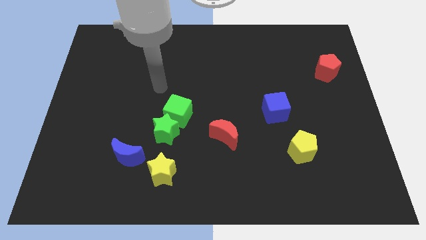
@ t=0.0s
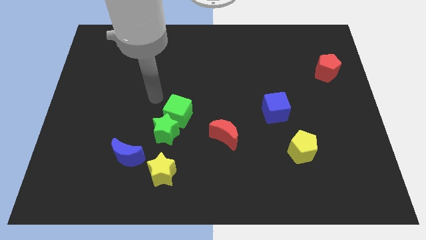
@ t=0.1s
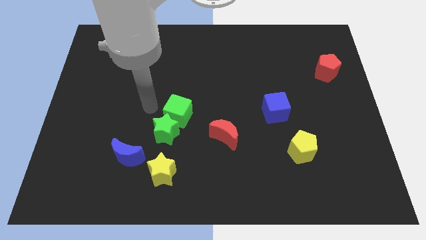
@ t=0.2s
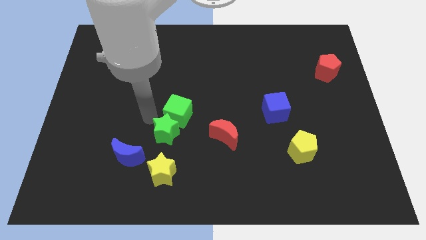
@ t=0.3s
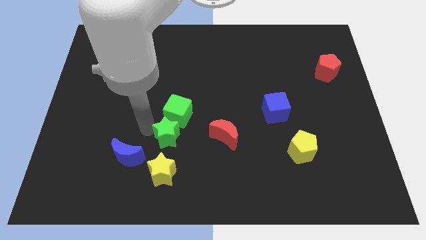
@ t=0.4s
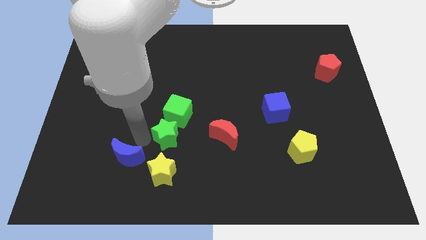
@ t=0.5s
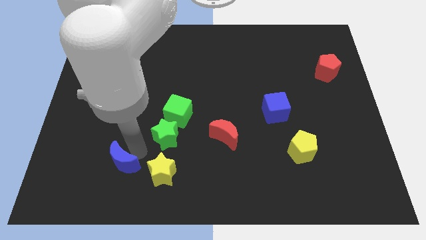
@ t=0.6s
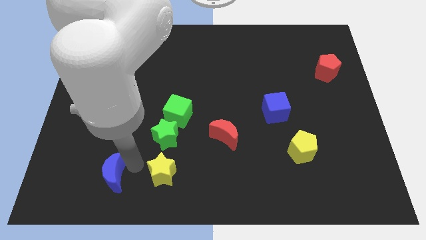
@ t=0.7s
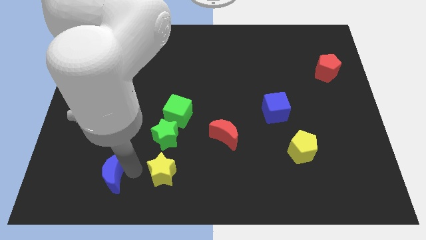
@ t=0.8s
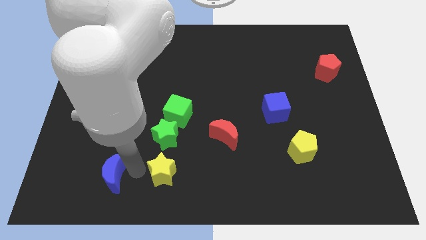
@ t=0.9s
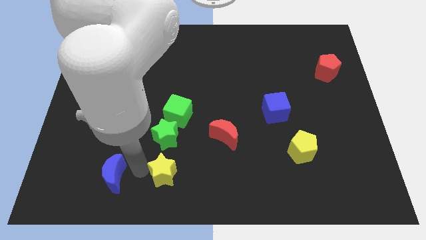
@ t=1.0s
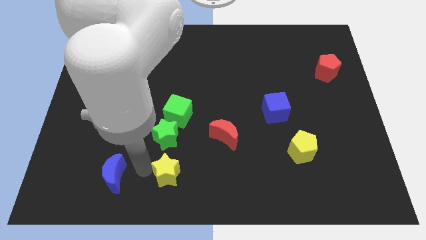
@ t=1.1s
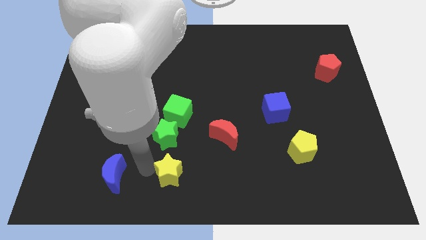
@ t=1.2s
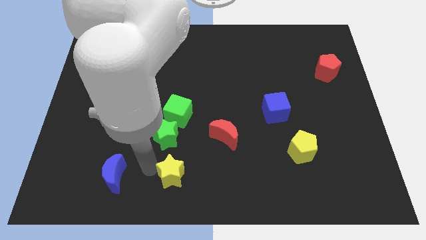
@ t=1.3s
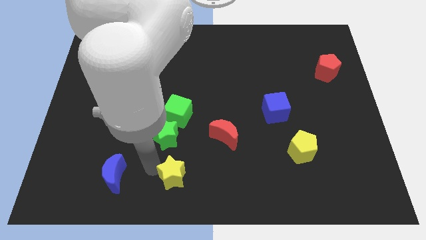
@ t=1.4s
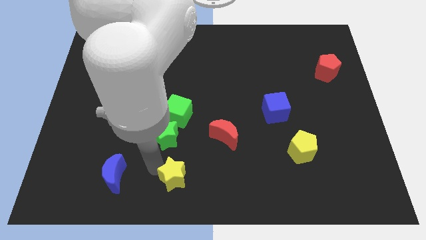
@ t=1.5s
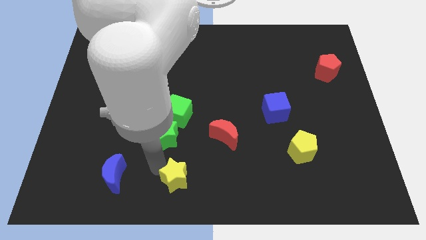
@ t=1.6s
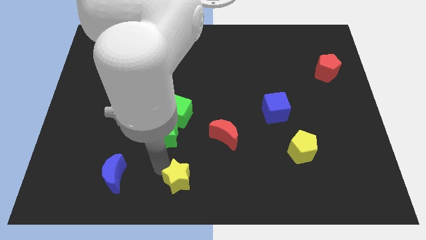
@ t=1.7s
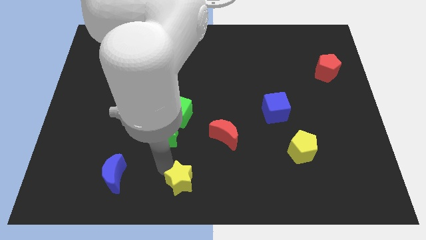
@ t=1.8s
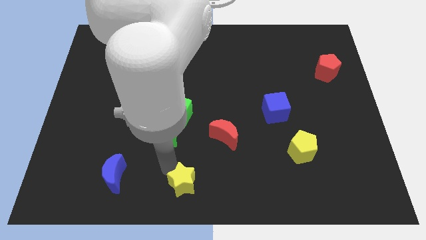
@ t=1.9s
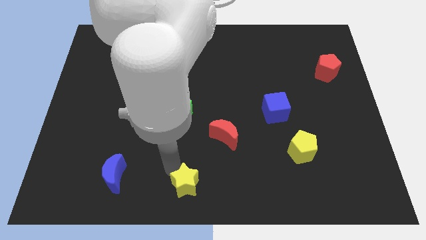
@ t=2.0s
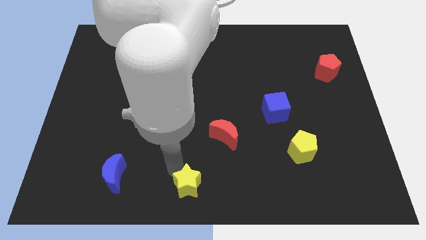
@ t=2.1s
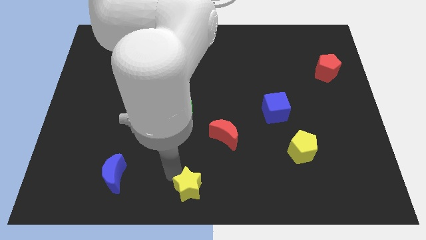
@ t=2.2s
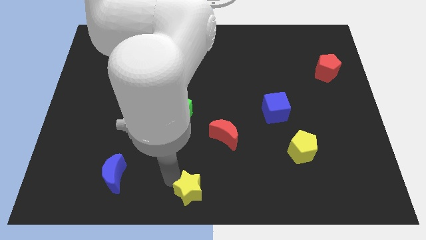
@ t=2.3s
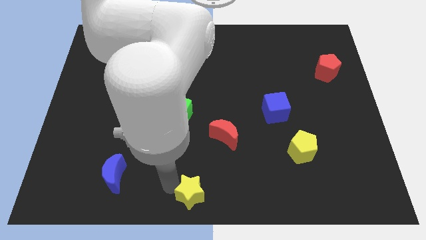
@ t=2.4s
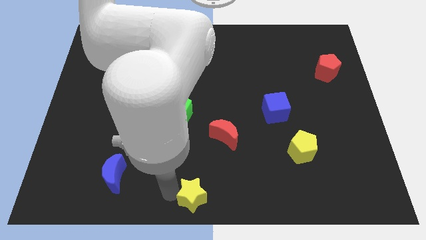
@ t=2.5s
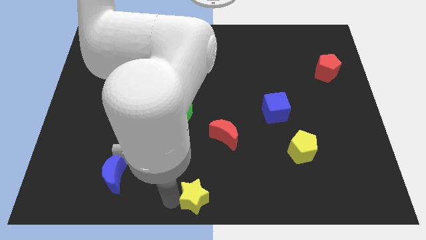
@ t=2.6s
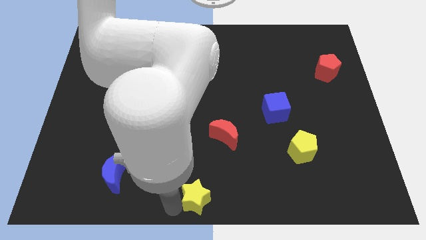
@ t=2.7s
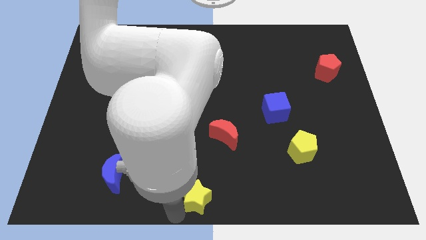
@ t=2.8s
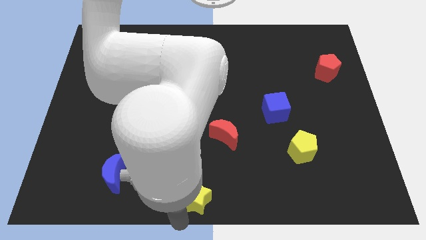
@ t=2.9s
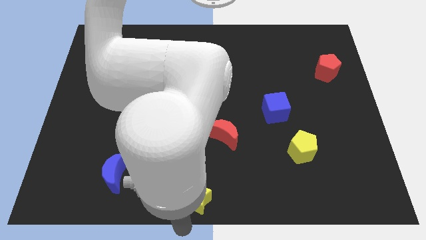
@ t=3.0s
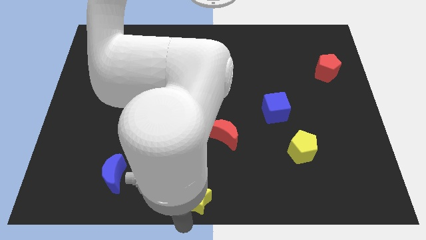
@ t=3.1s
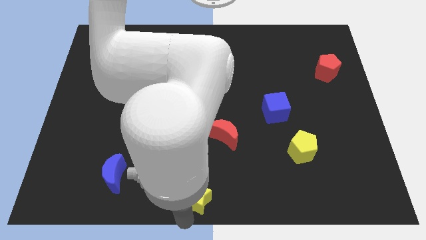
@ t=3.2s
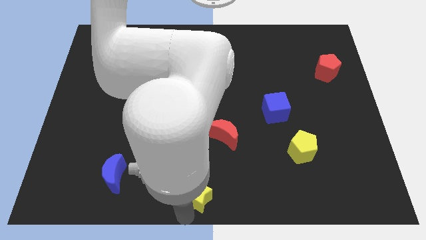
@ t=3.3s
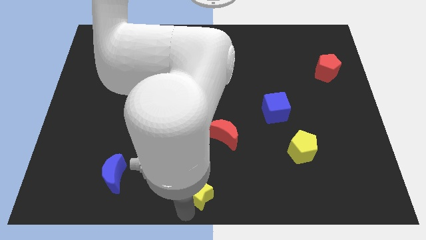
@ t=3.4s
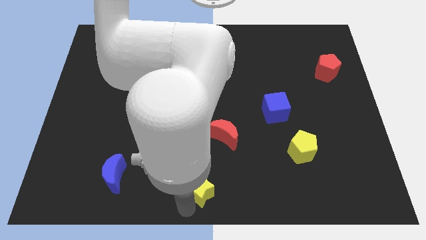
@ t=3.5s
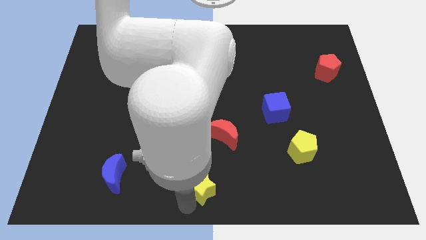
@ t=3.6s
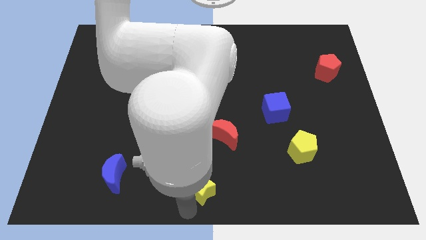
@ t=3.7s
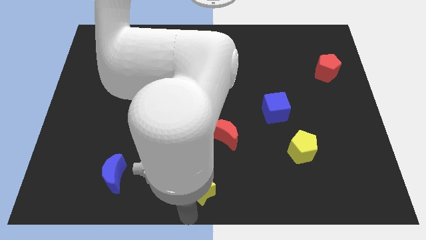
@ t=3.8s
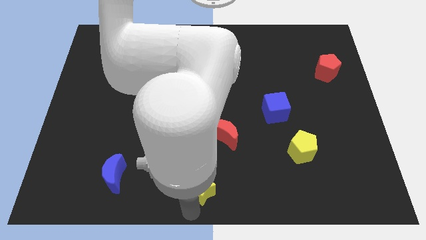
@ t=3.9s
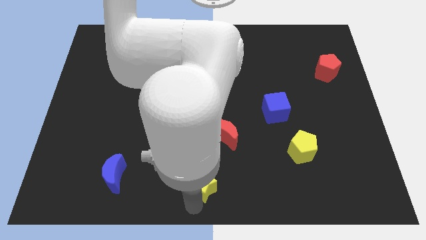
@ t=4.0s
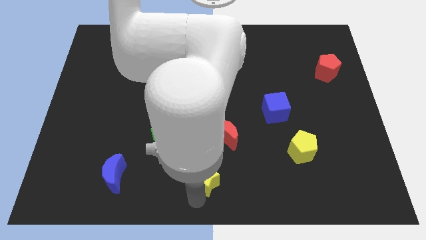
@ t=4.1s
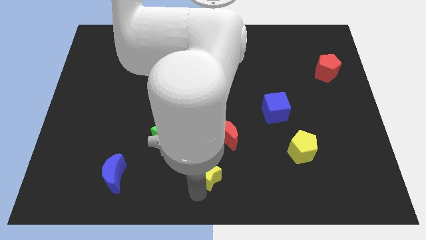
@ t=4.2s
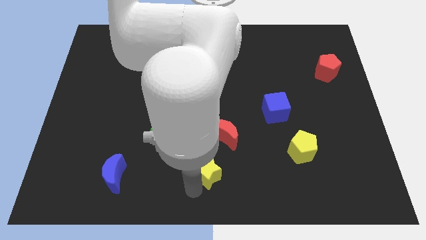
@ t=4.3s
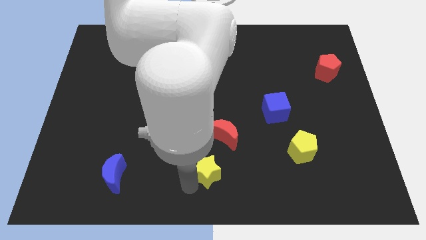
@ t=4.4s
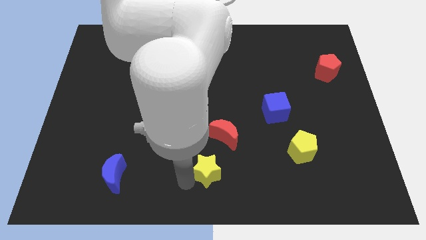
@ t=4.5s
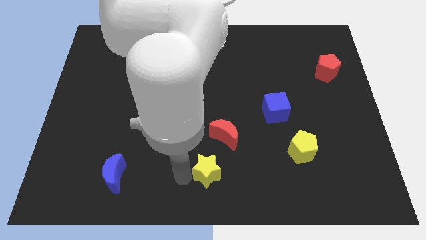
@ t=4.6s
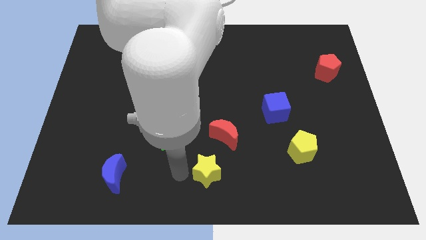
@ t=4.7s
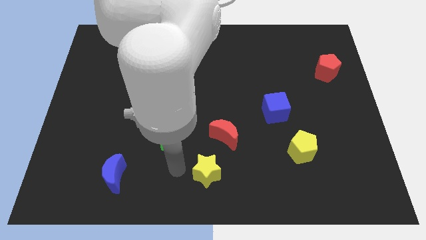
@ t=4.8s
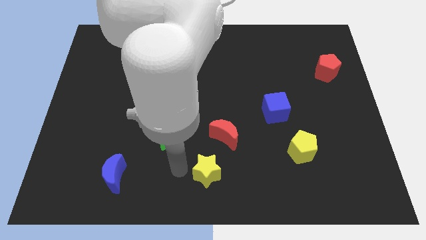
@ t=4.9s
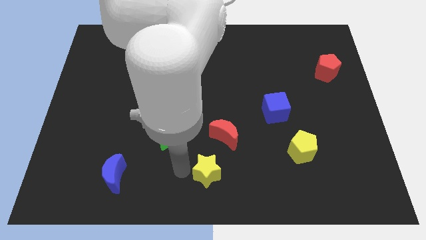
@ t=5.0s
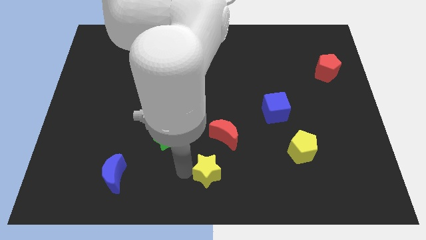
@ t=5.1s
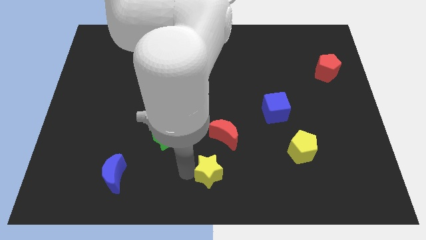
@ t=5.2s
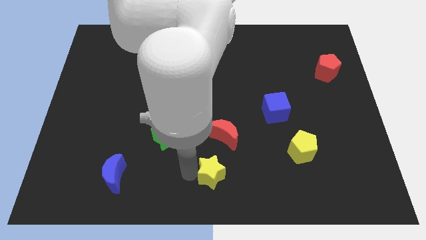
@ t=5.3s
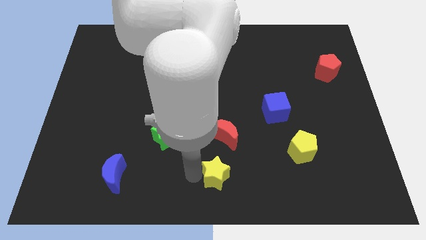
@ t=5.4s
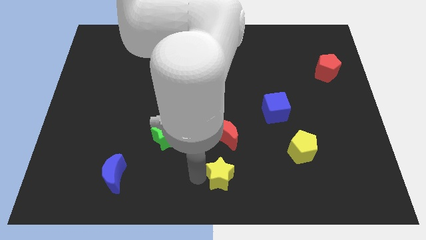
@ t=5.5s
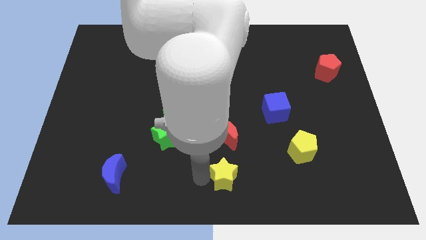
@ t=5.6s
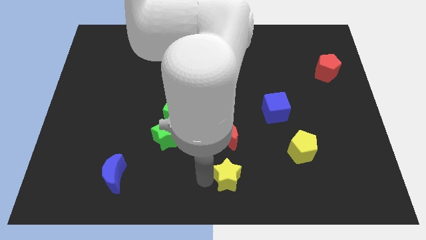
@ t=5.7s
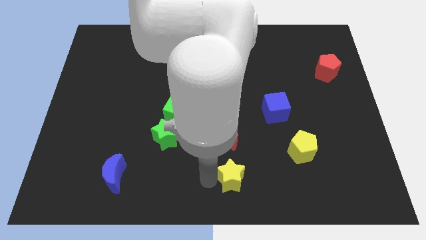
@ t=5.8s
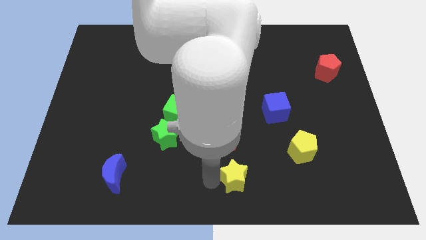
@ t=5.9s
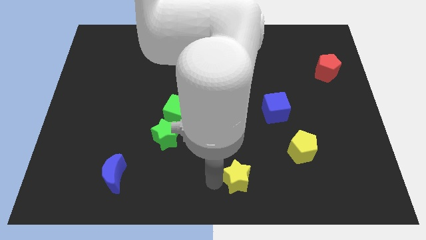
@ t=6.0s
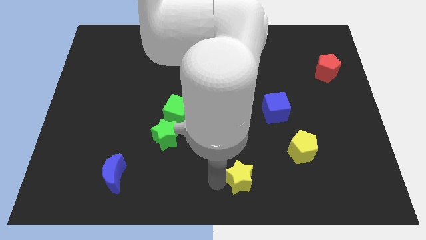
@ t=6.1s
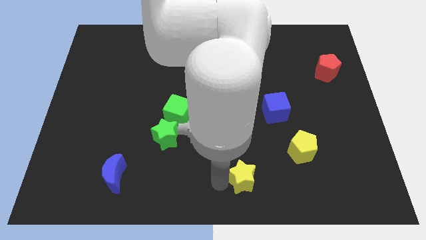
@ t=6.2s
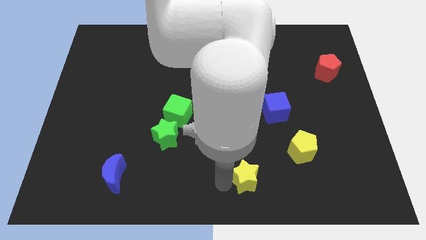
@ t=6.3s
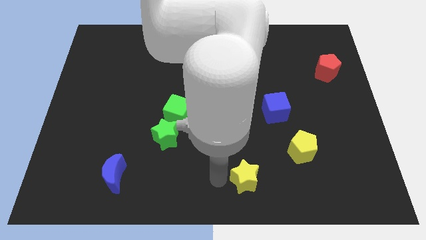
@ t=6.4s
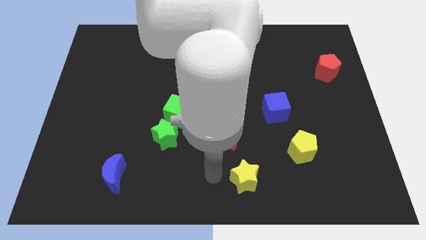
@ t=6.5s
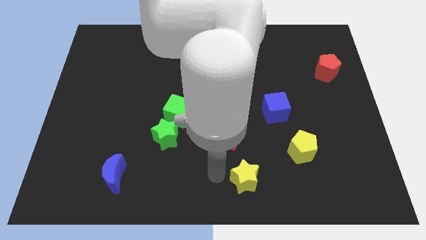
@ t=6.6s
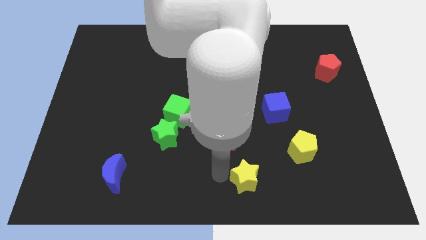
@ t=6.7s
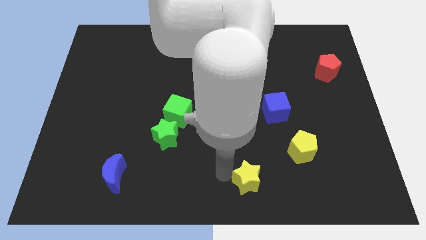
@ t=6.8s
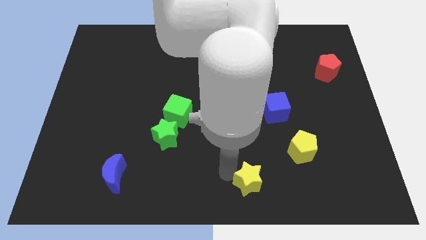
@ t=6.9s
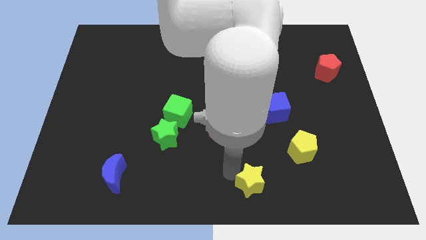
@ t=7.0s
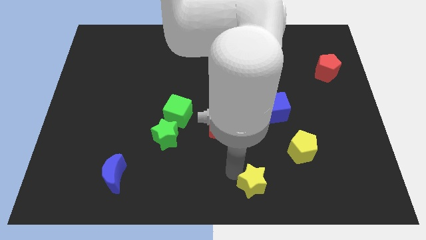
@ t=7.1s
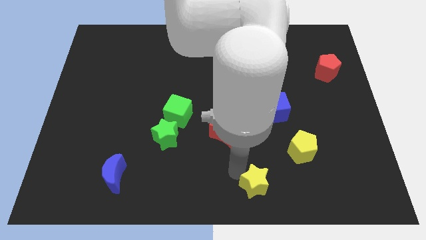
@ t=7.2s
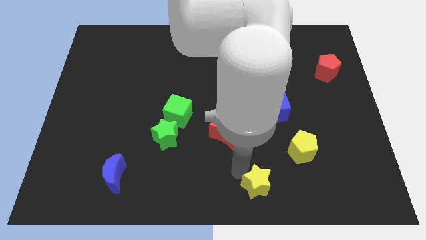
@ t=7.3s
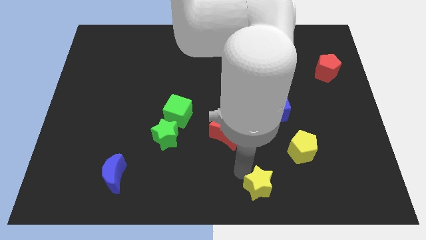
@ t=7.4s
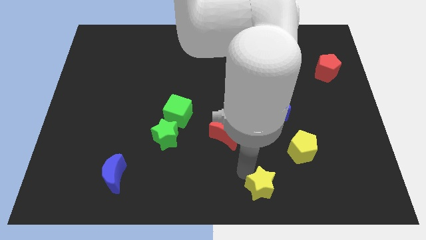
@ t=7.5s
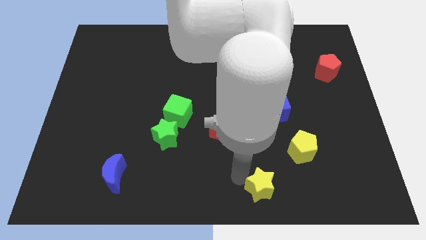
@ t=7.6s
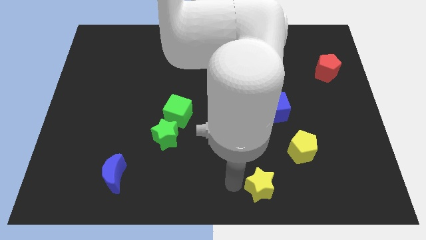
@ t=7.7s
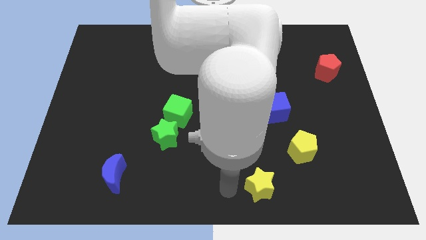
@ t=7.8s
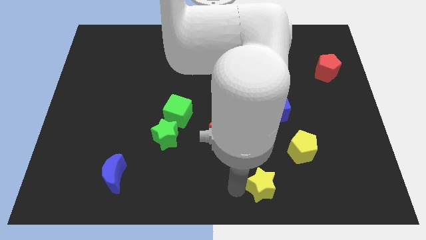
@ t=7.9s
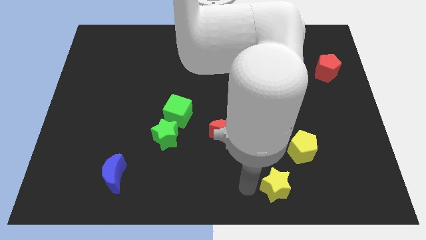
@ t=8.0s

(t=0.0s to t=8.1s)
push the yellow star to the right

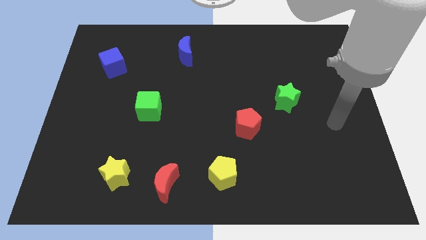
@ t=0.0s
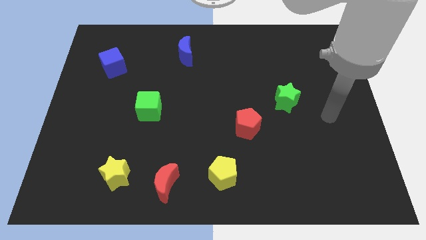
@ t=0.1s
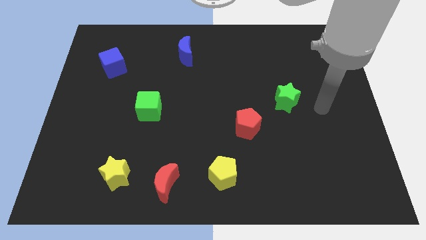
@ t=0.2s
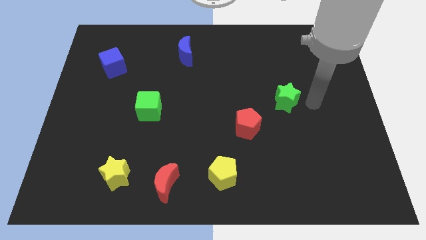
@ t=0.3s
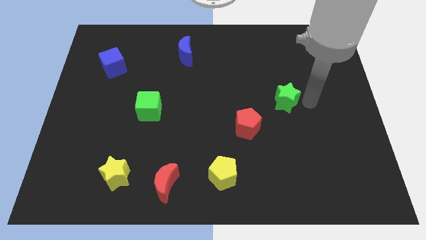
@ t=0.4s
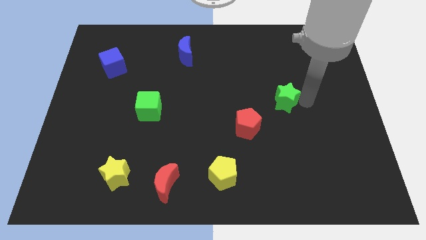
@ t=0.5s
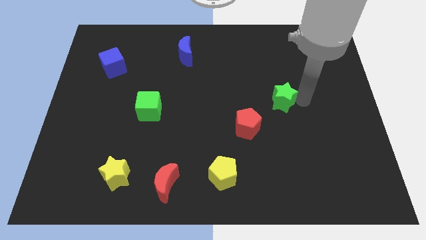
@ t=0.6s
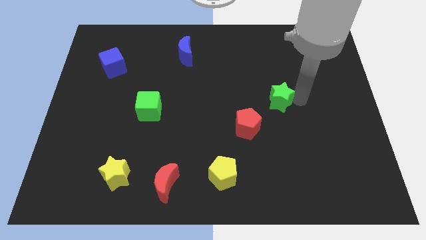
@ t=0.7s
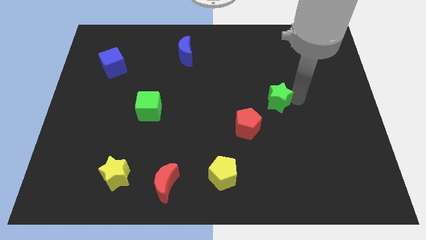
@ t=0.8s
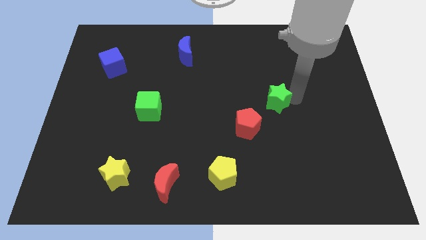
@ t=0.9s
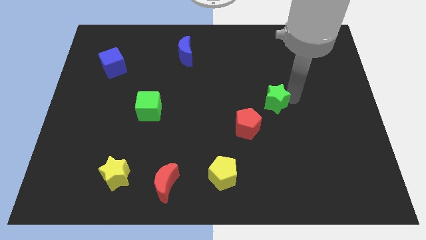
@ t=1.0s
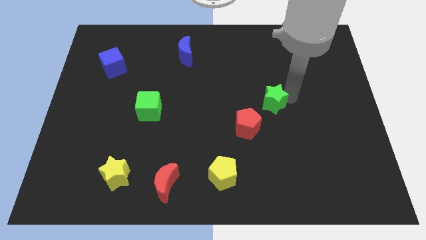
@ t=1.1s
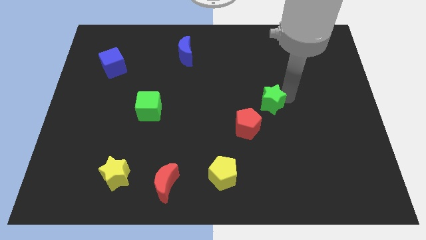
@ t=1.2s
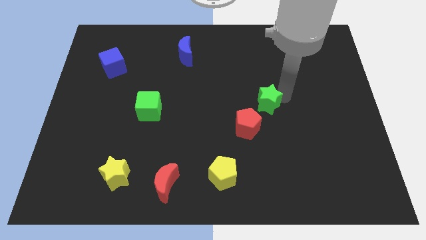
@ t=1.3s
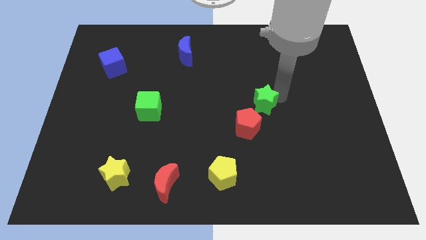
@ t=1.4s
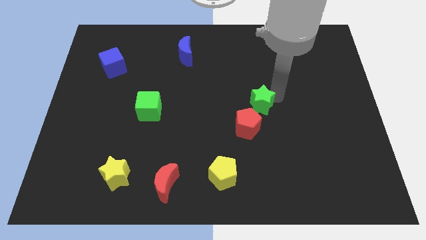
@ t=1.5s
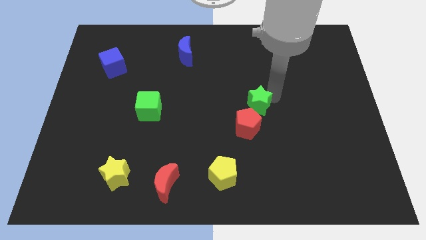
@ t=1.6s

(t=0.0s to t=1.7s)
move the green star left a bit
